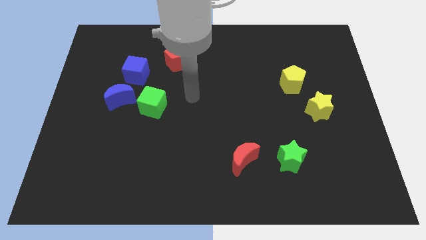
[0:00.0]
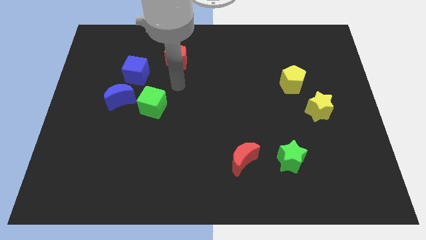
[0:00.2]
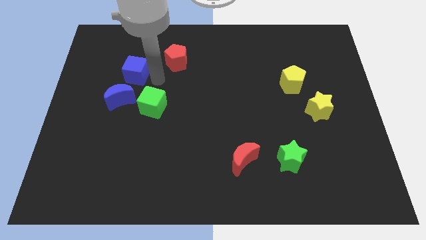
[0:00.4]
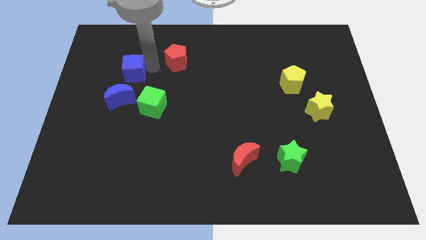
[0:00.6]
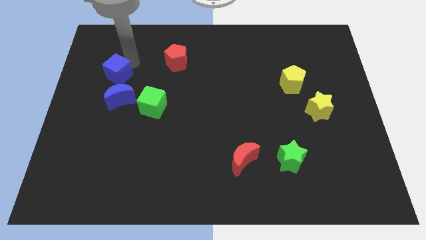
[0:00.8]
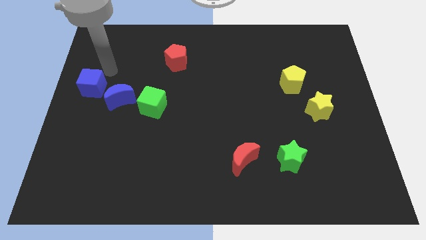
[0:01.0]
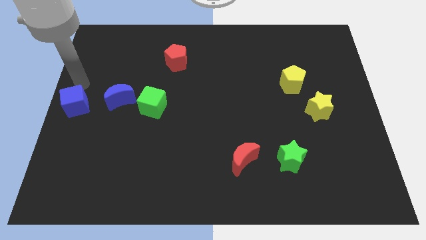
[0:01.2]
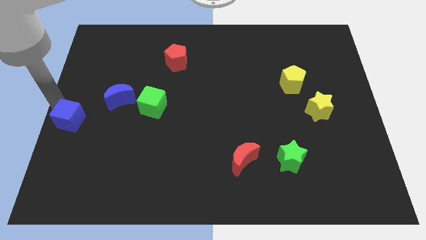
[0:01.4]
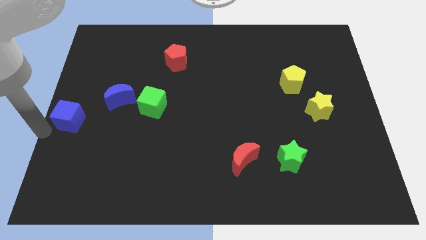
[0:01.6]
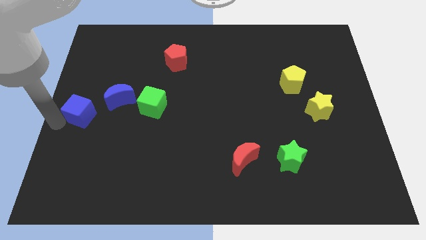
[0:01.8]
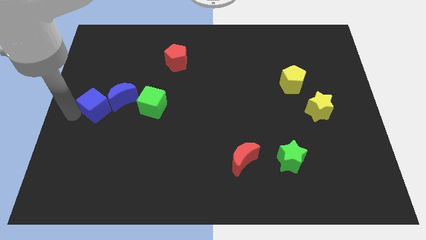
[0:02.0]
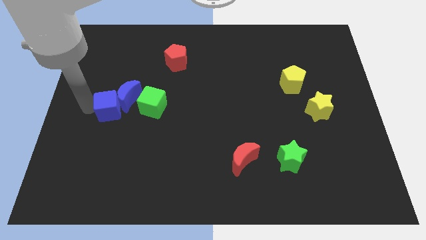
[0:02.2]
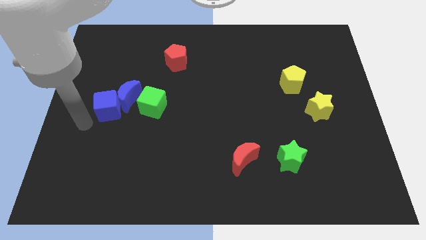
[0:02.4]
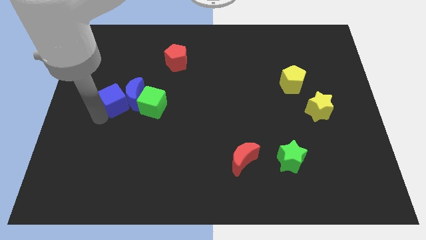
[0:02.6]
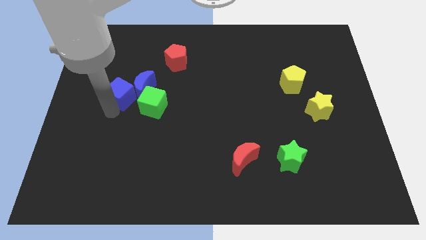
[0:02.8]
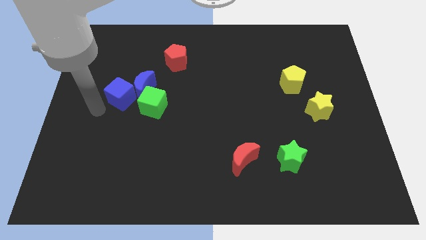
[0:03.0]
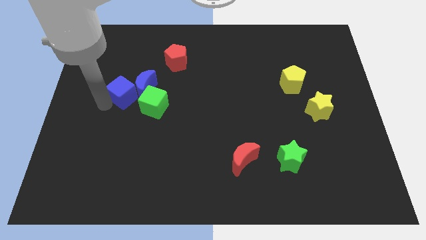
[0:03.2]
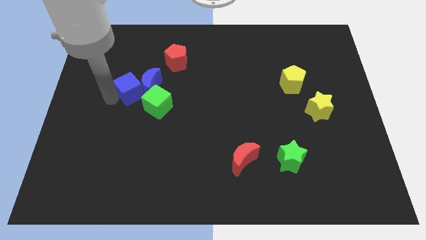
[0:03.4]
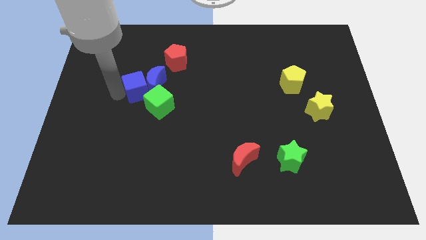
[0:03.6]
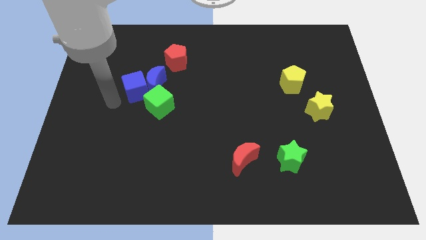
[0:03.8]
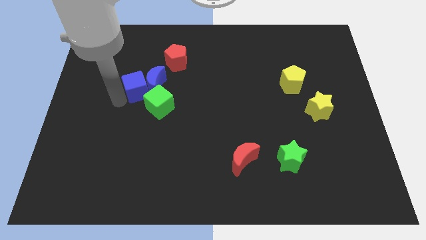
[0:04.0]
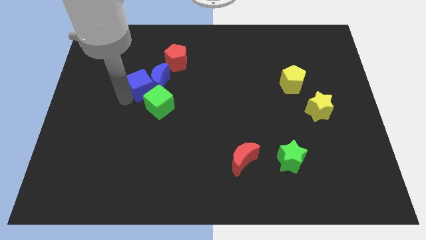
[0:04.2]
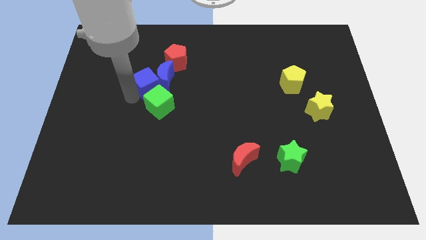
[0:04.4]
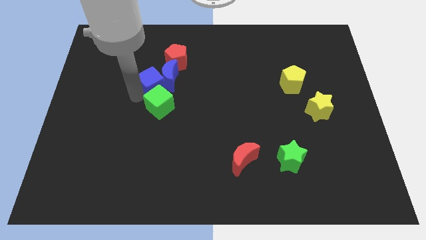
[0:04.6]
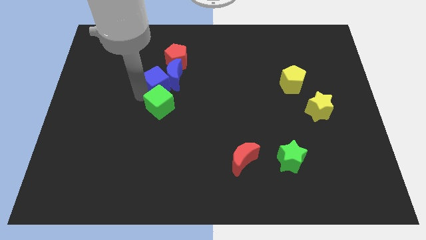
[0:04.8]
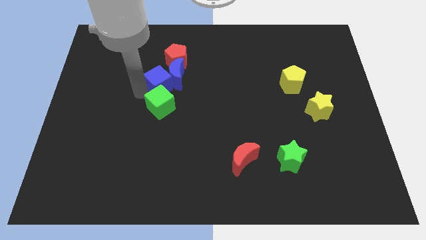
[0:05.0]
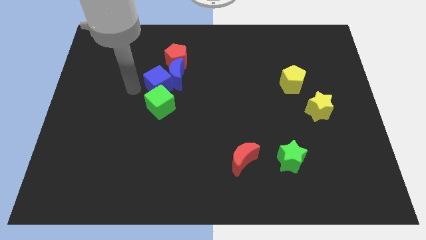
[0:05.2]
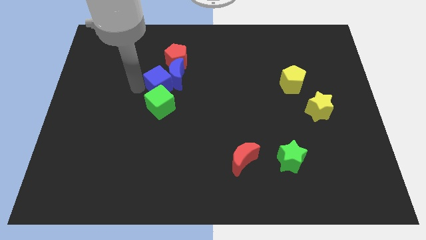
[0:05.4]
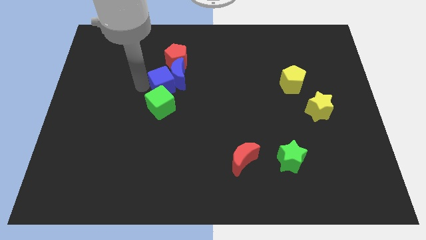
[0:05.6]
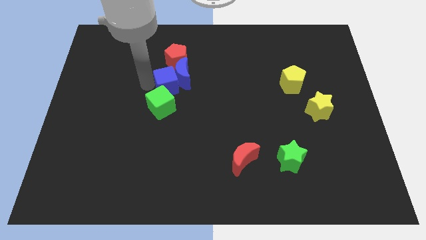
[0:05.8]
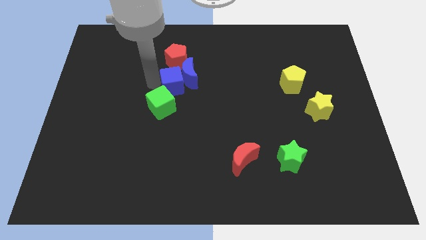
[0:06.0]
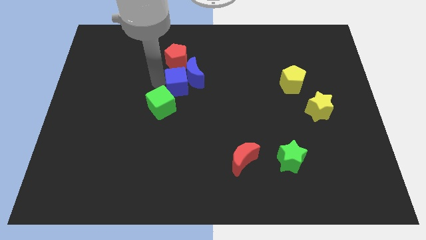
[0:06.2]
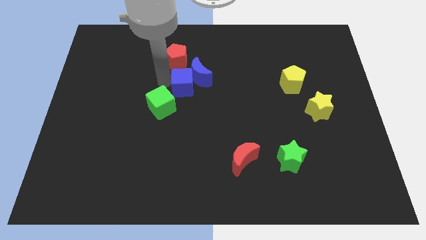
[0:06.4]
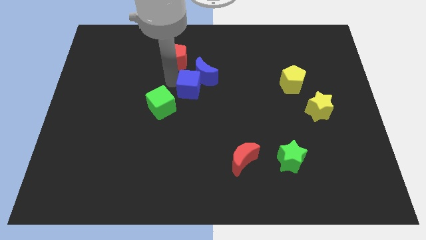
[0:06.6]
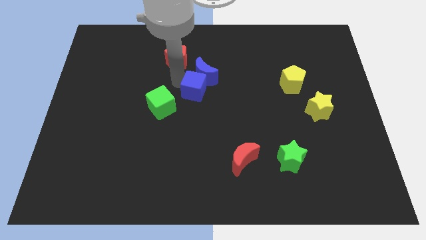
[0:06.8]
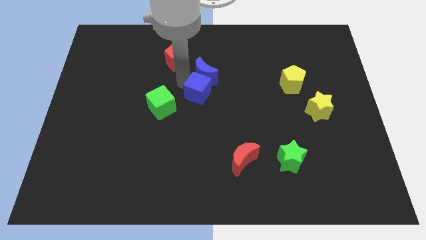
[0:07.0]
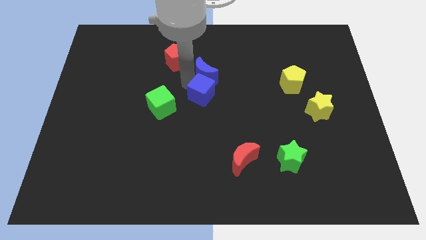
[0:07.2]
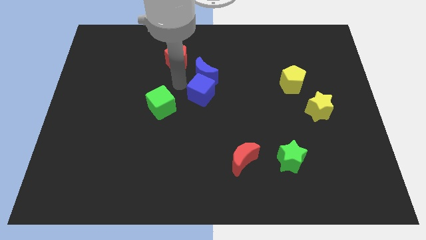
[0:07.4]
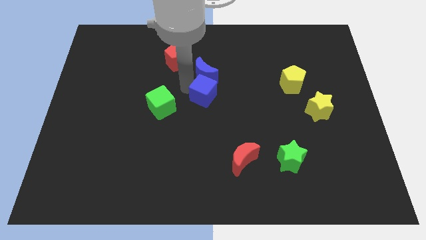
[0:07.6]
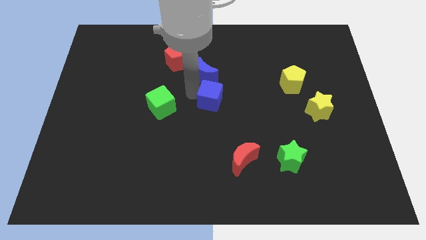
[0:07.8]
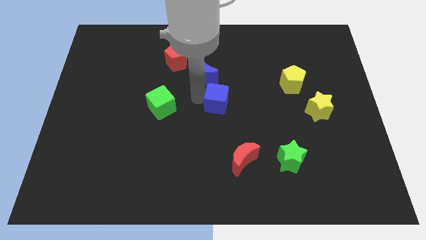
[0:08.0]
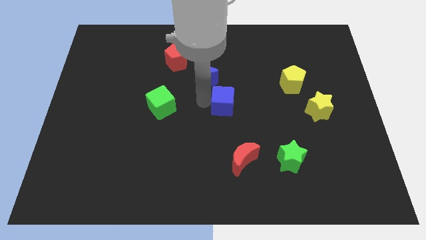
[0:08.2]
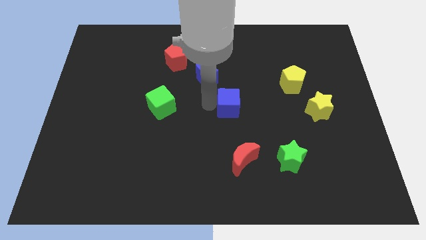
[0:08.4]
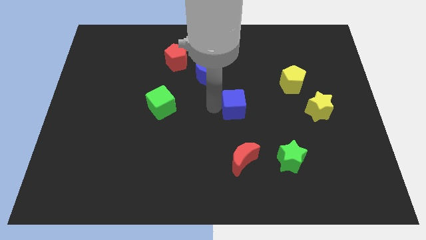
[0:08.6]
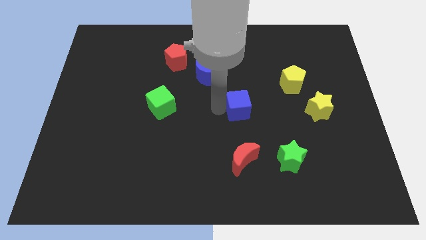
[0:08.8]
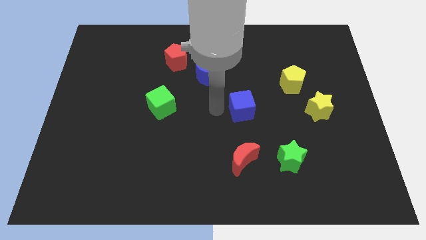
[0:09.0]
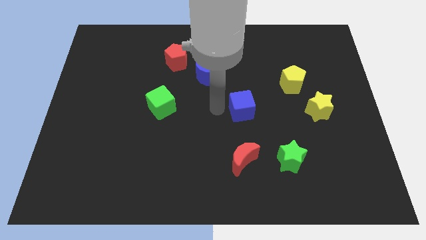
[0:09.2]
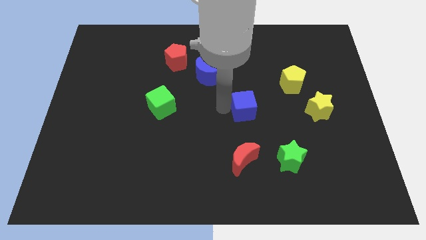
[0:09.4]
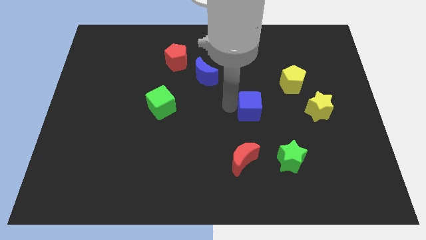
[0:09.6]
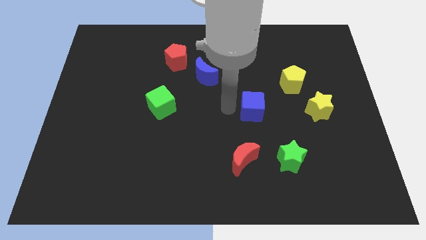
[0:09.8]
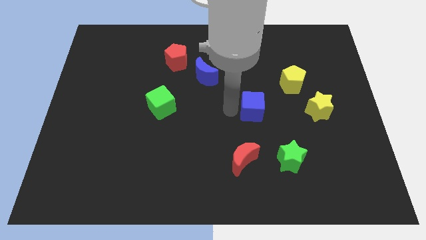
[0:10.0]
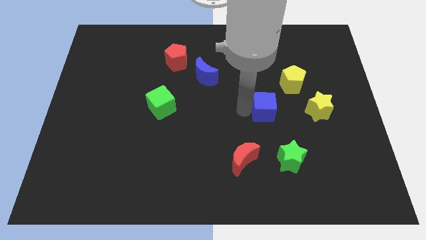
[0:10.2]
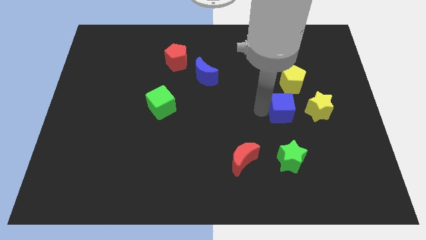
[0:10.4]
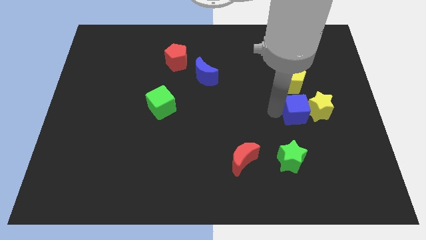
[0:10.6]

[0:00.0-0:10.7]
move the blue cube close to the yellow star

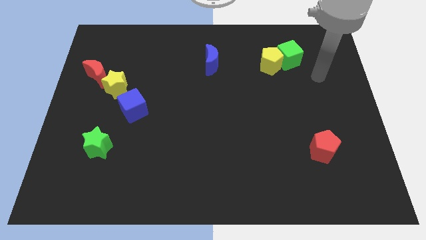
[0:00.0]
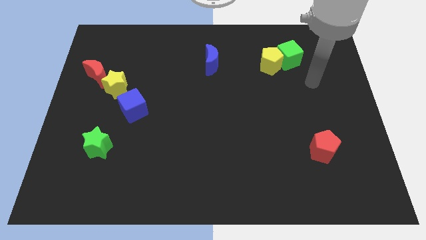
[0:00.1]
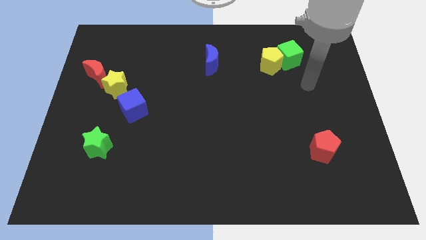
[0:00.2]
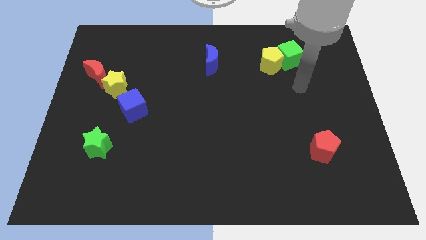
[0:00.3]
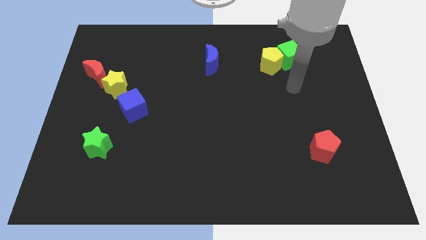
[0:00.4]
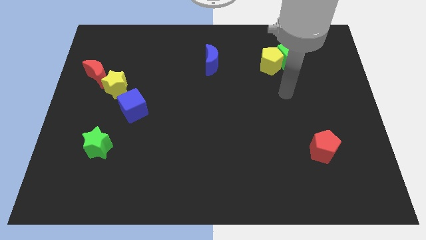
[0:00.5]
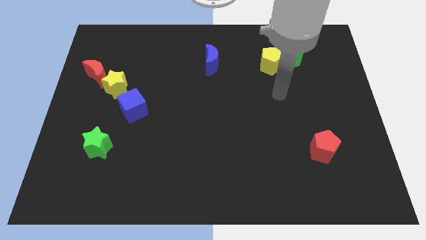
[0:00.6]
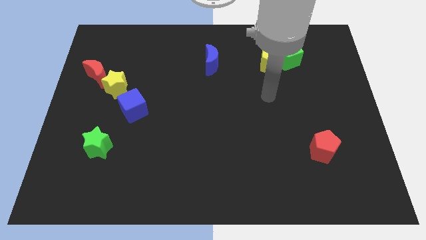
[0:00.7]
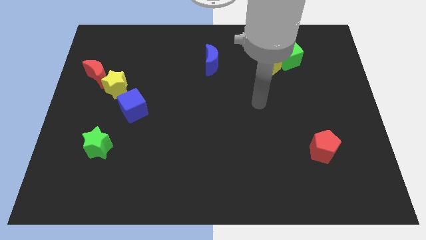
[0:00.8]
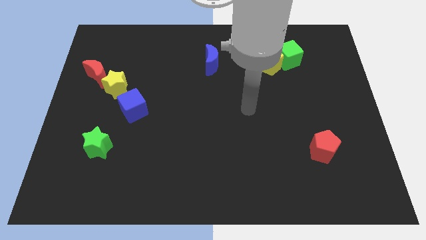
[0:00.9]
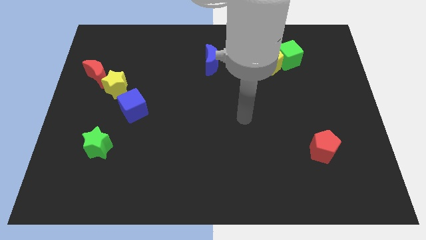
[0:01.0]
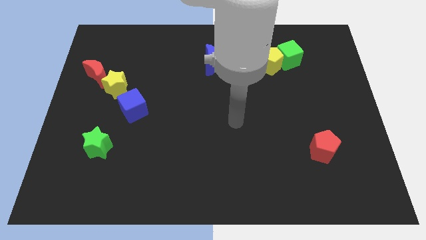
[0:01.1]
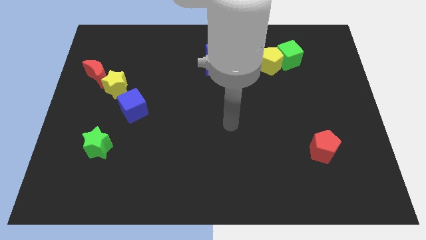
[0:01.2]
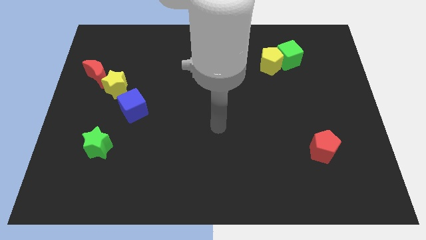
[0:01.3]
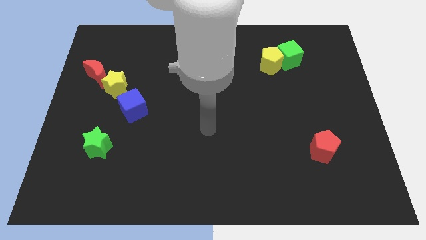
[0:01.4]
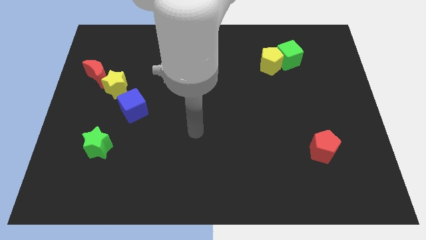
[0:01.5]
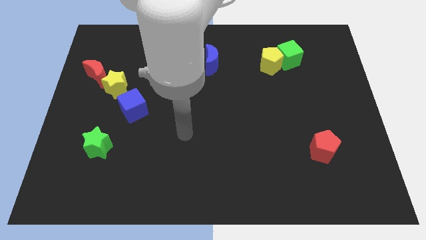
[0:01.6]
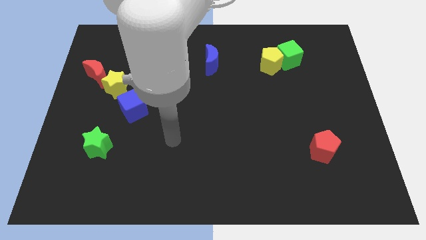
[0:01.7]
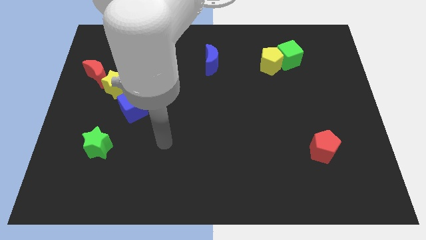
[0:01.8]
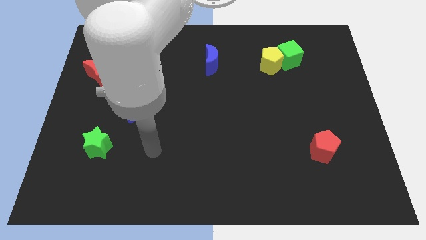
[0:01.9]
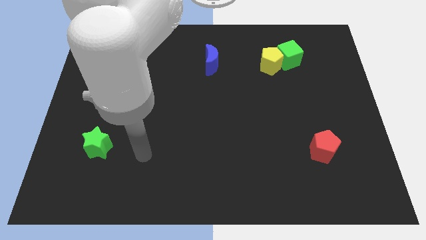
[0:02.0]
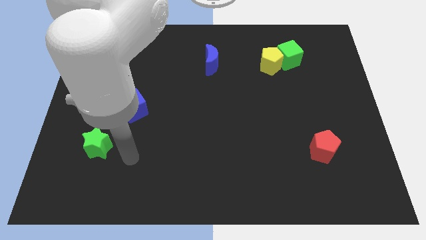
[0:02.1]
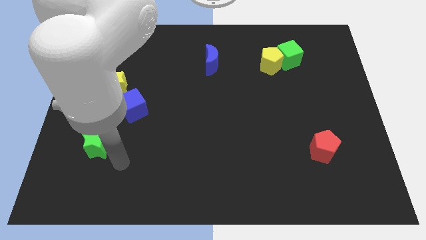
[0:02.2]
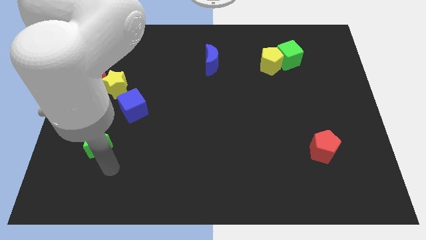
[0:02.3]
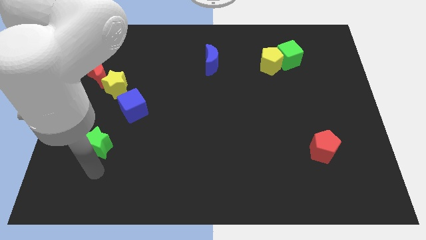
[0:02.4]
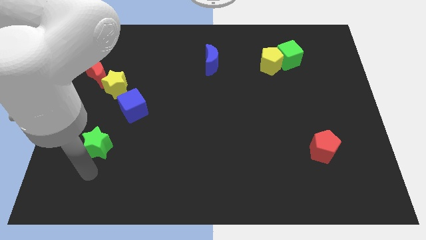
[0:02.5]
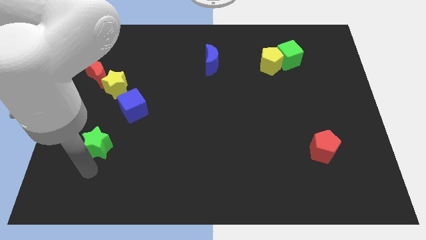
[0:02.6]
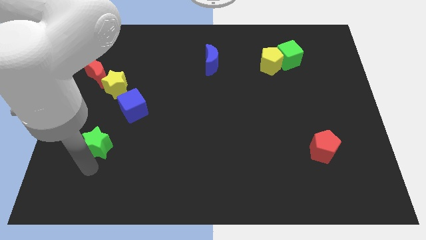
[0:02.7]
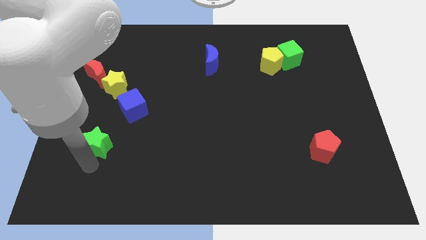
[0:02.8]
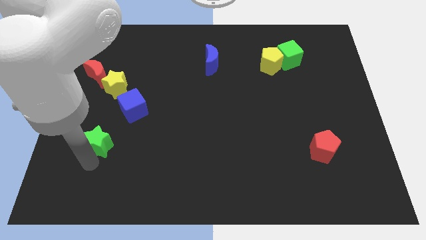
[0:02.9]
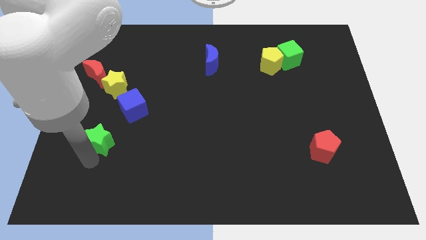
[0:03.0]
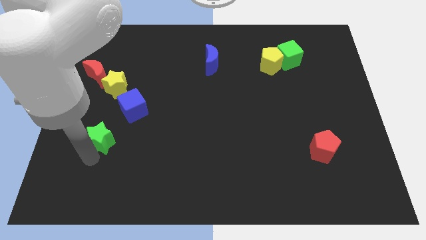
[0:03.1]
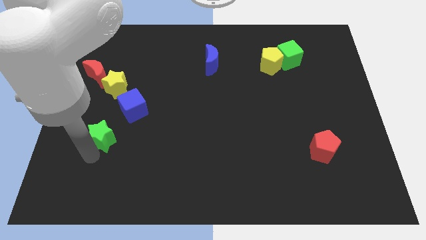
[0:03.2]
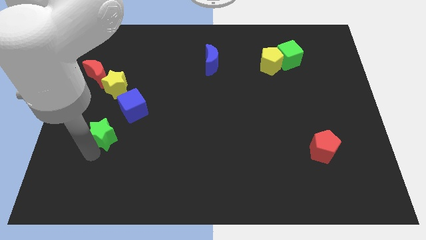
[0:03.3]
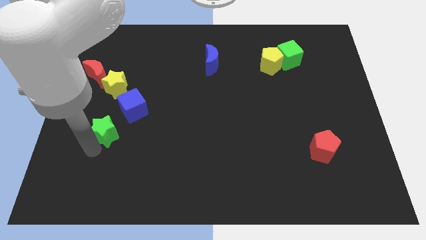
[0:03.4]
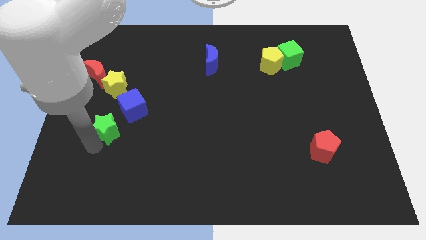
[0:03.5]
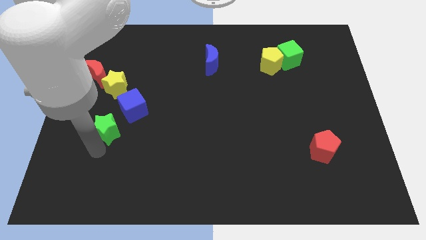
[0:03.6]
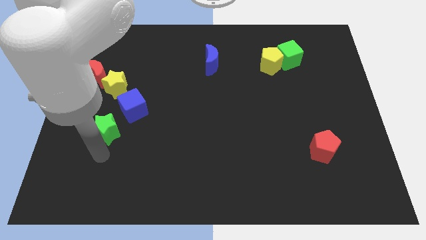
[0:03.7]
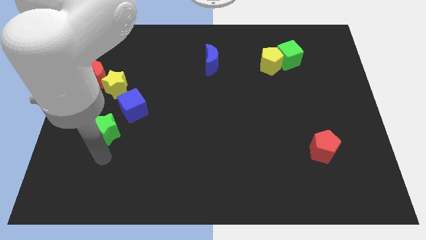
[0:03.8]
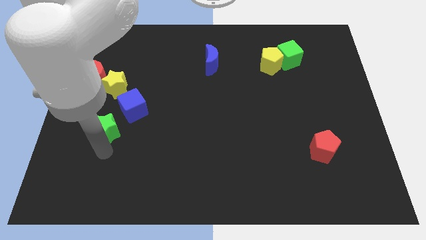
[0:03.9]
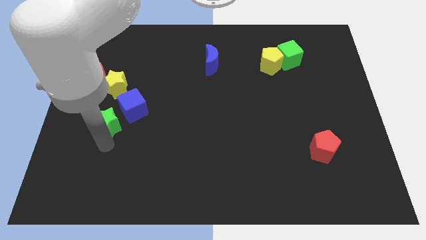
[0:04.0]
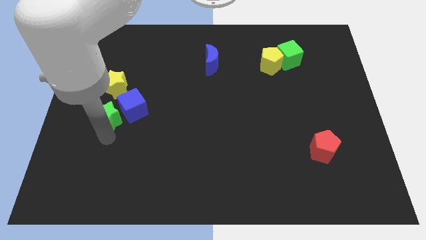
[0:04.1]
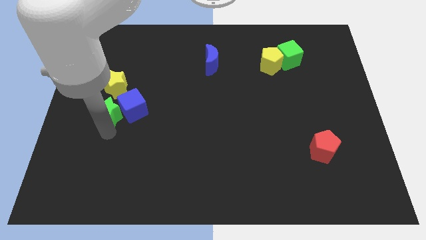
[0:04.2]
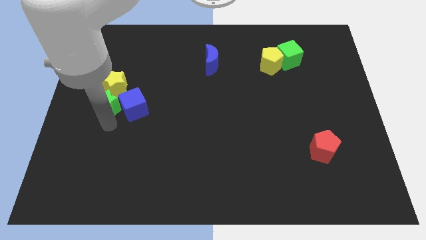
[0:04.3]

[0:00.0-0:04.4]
put the green star to the yellow star
